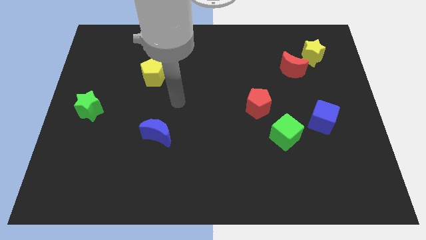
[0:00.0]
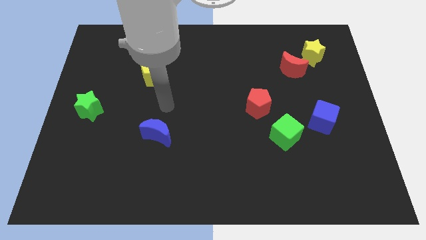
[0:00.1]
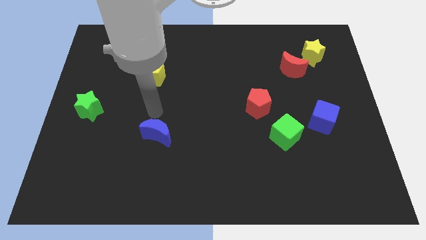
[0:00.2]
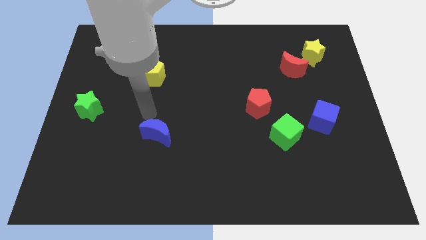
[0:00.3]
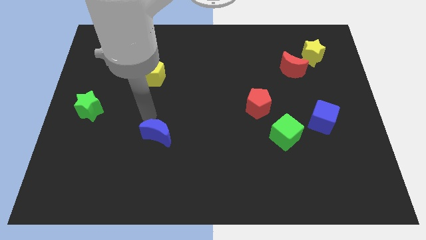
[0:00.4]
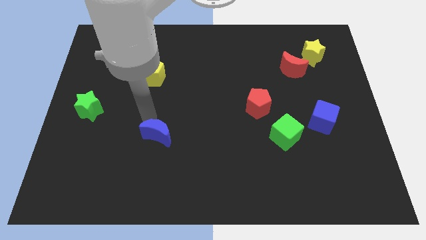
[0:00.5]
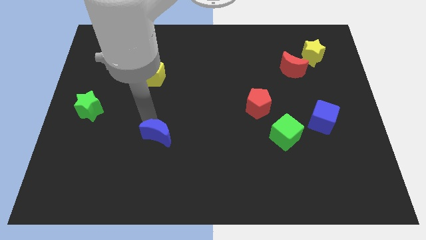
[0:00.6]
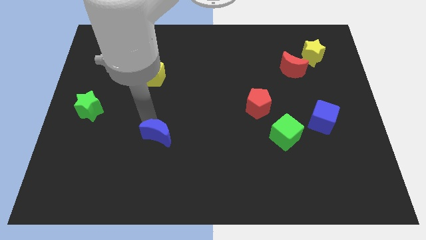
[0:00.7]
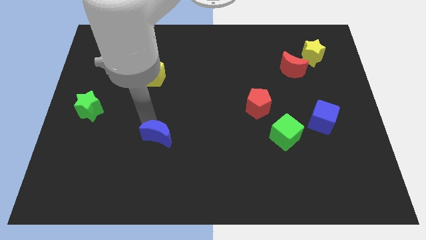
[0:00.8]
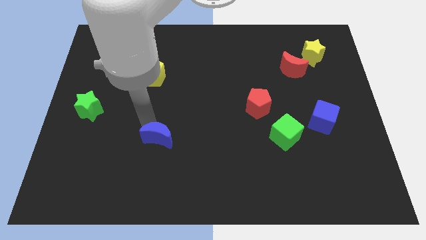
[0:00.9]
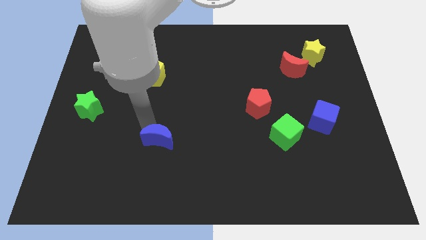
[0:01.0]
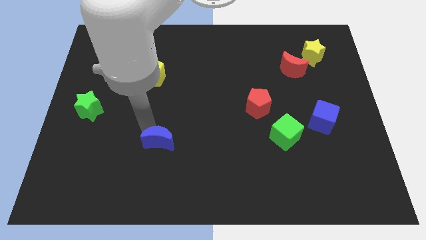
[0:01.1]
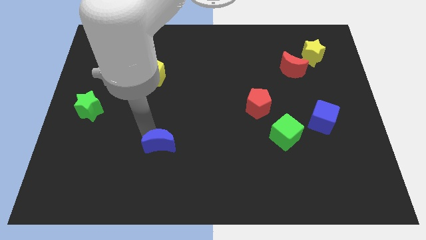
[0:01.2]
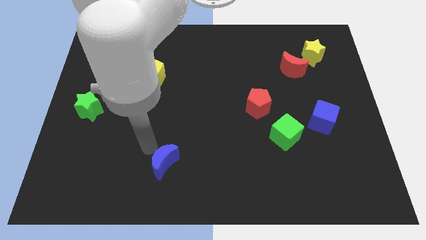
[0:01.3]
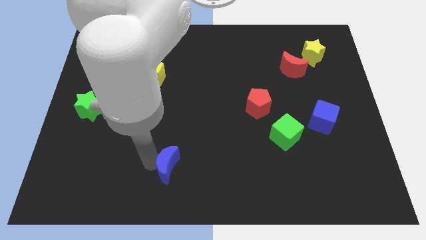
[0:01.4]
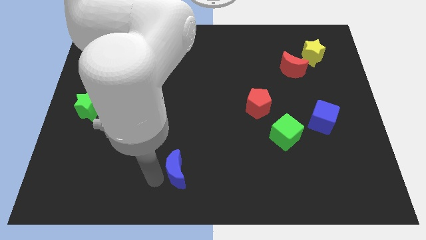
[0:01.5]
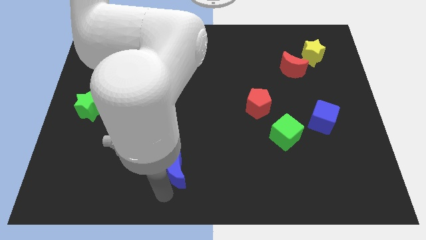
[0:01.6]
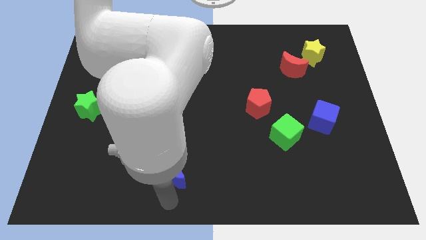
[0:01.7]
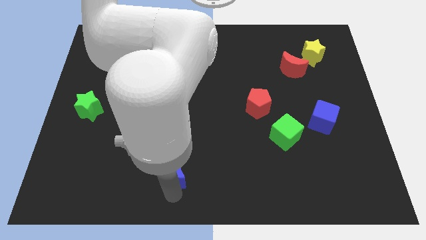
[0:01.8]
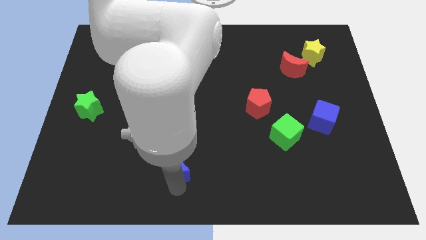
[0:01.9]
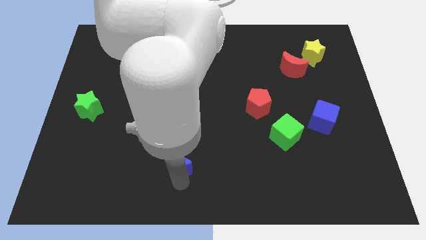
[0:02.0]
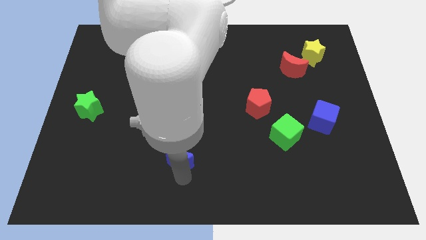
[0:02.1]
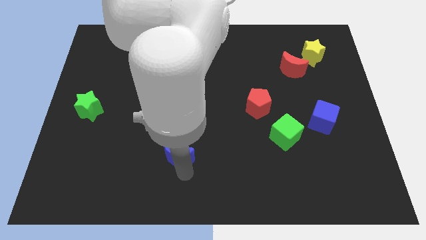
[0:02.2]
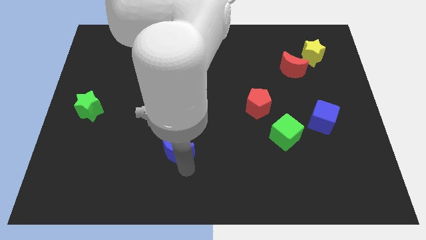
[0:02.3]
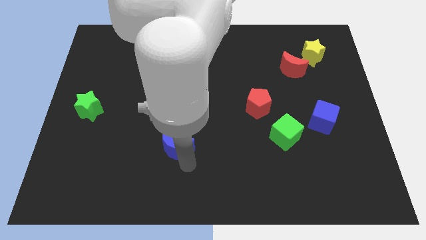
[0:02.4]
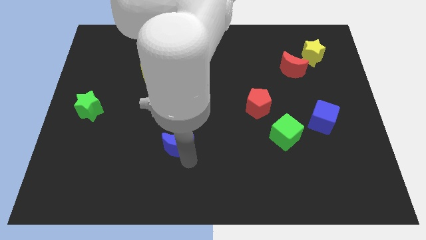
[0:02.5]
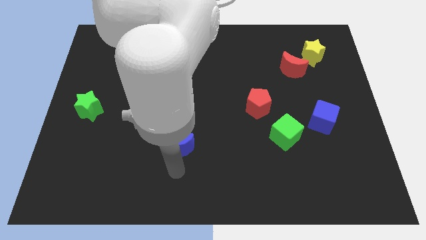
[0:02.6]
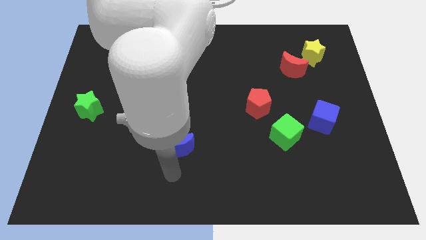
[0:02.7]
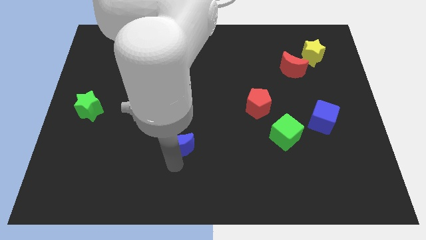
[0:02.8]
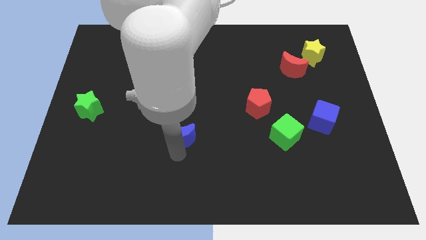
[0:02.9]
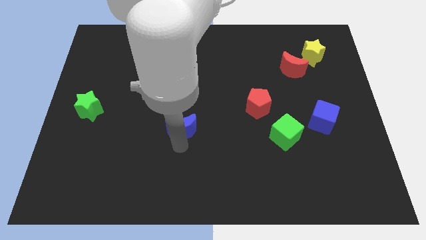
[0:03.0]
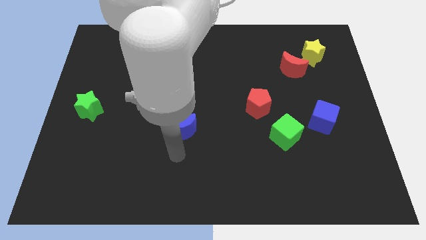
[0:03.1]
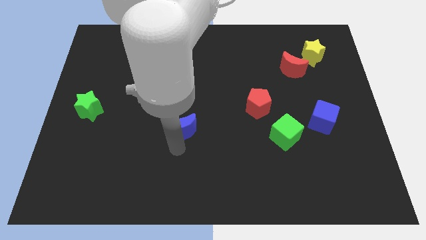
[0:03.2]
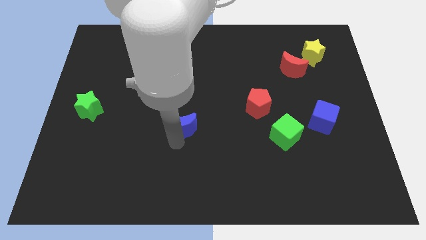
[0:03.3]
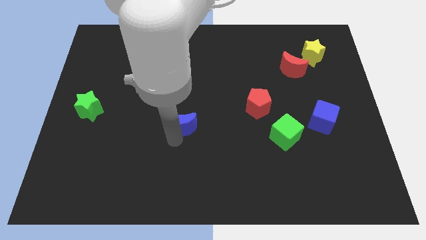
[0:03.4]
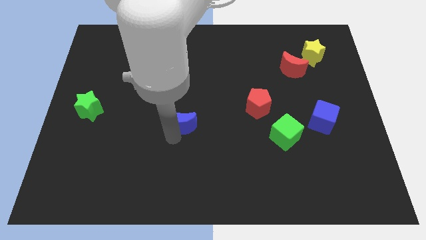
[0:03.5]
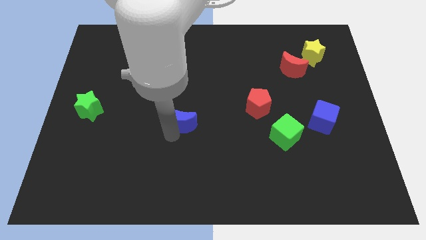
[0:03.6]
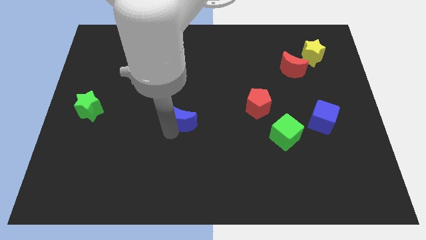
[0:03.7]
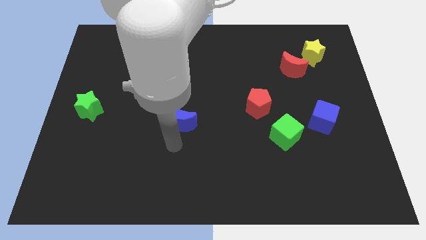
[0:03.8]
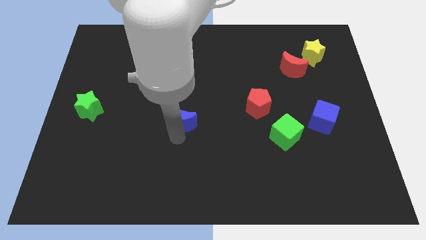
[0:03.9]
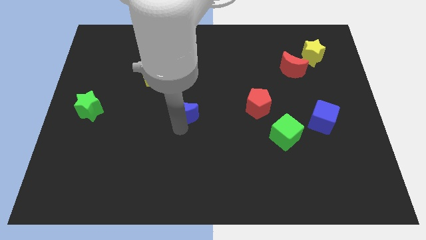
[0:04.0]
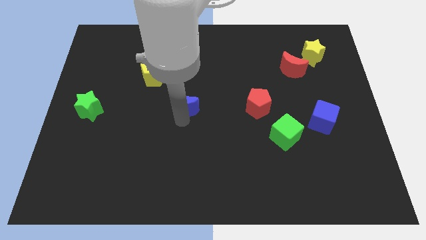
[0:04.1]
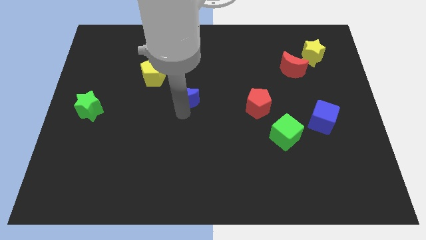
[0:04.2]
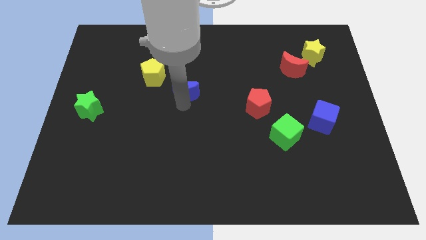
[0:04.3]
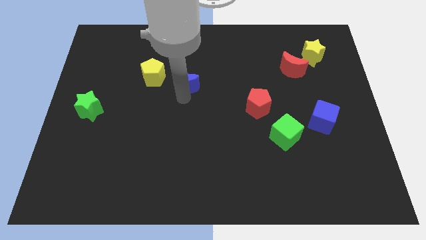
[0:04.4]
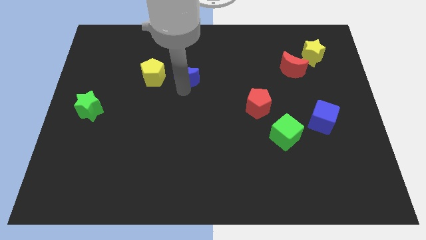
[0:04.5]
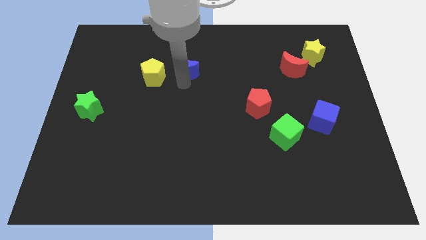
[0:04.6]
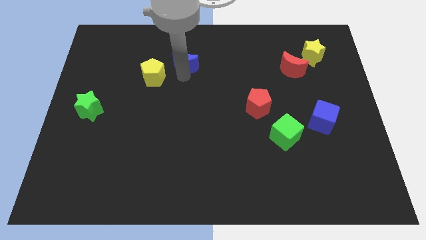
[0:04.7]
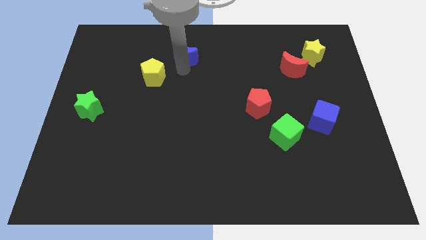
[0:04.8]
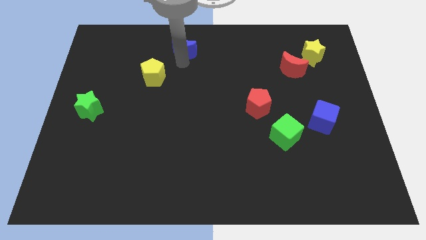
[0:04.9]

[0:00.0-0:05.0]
push the blue moon to the top

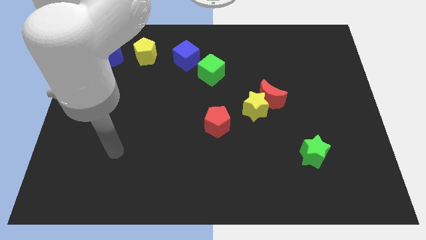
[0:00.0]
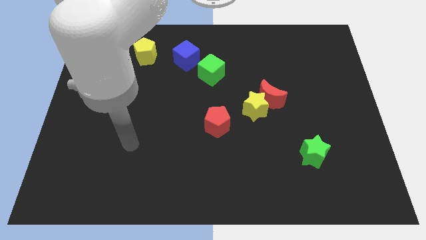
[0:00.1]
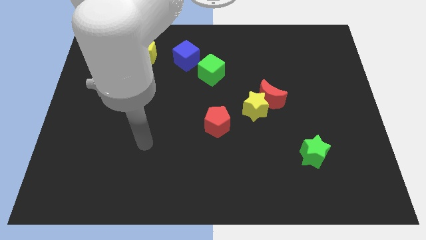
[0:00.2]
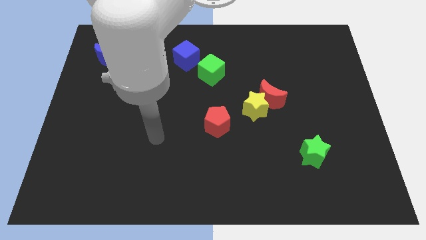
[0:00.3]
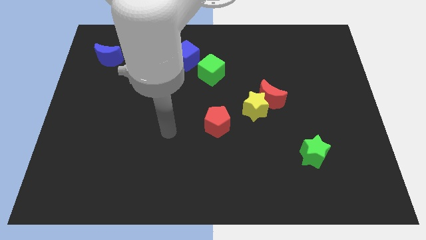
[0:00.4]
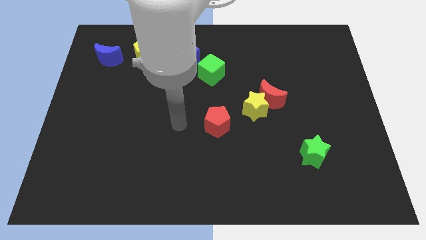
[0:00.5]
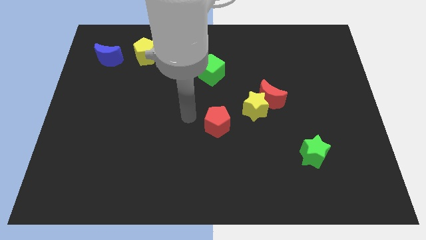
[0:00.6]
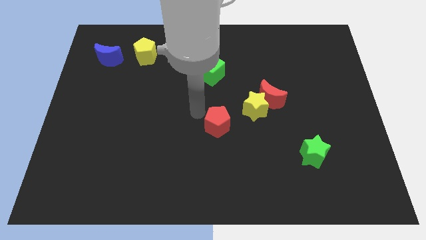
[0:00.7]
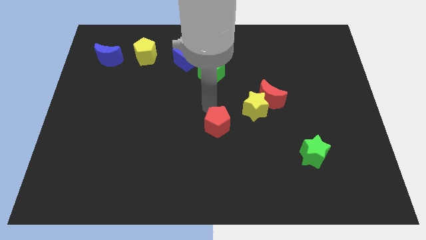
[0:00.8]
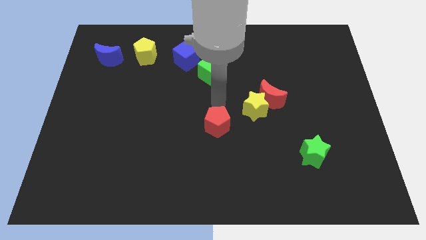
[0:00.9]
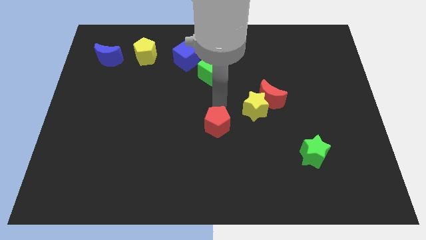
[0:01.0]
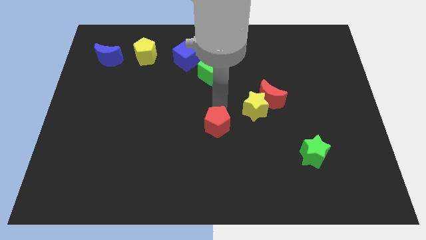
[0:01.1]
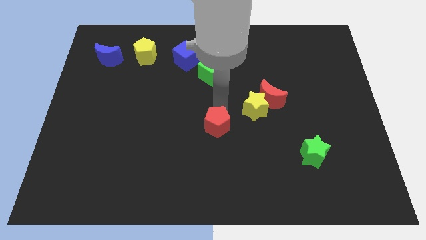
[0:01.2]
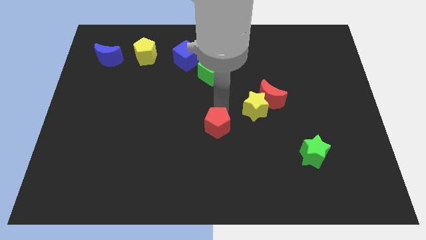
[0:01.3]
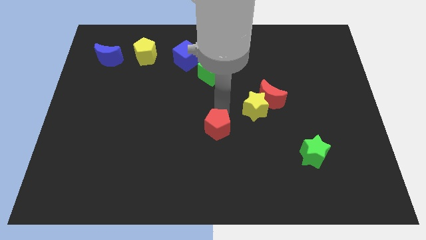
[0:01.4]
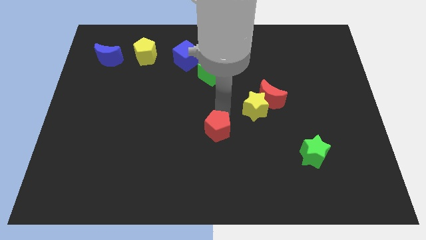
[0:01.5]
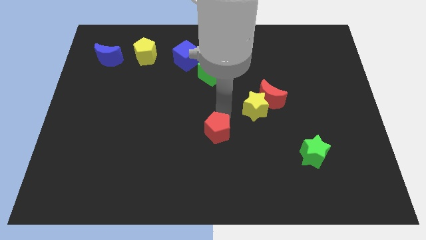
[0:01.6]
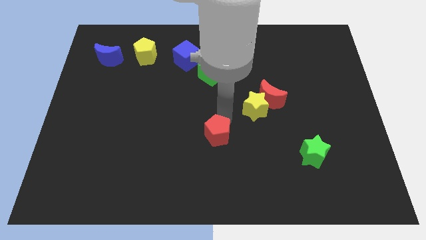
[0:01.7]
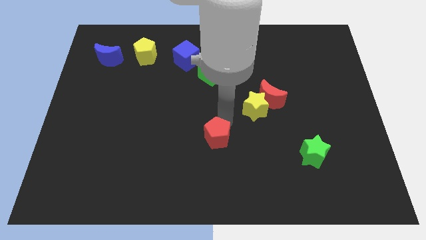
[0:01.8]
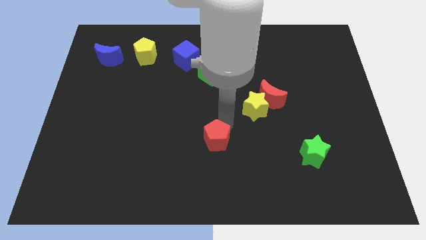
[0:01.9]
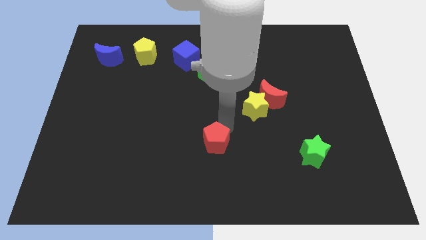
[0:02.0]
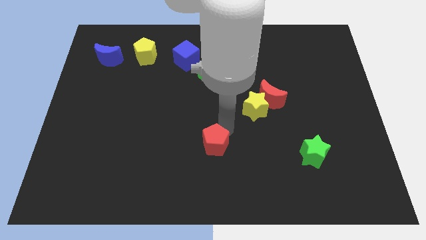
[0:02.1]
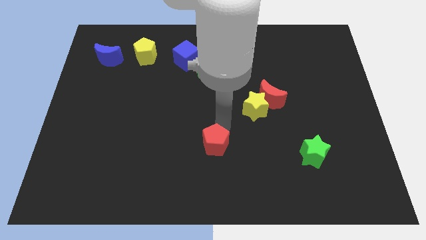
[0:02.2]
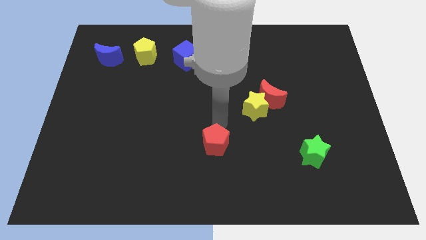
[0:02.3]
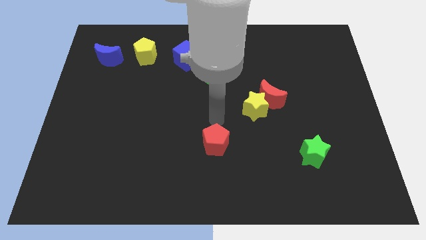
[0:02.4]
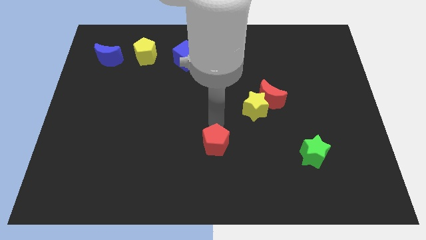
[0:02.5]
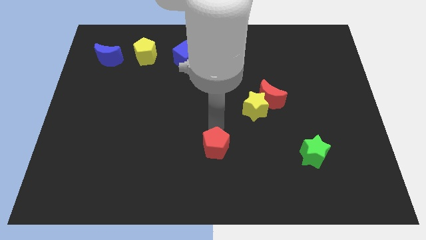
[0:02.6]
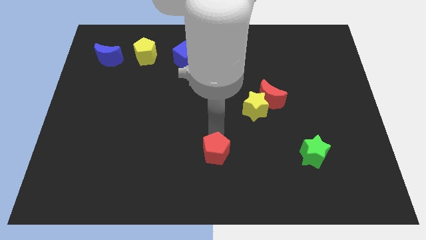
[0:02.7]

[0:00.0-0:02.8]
put the red pentagon to the bottom side
